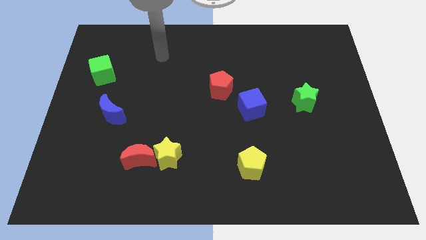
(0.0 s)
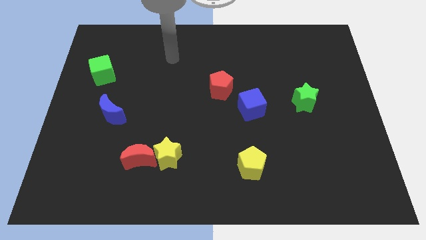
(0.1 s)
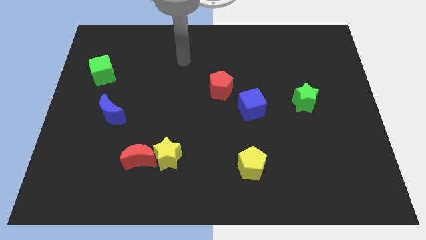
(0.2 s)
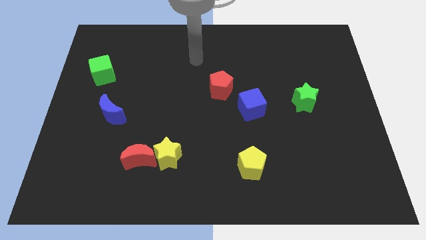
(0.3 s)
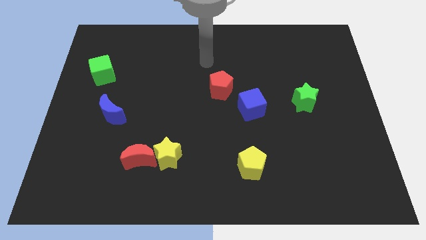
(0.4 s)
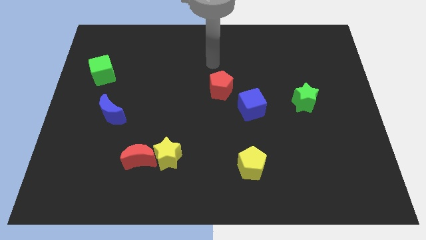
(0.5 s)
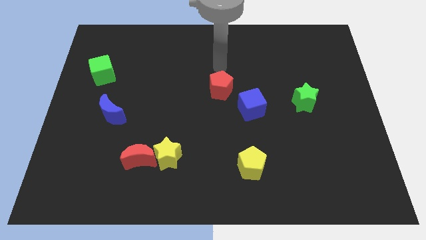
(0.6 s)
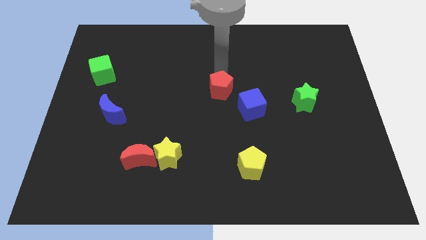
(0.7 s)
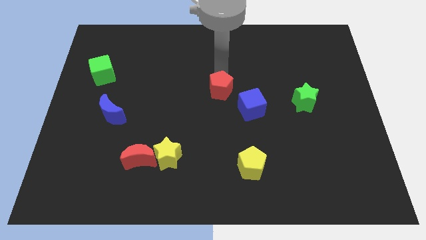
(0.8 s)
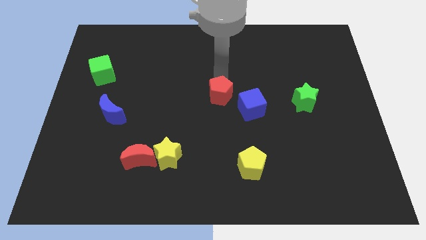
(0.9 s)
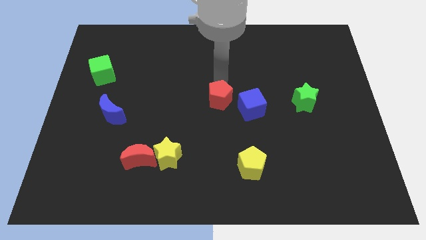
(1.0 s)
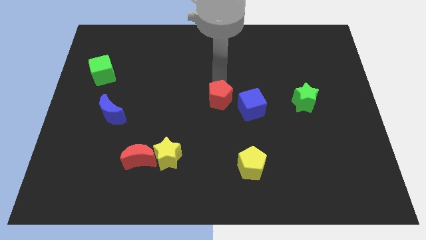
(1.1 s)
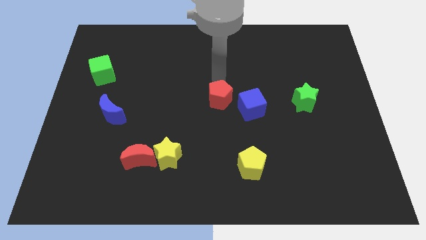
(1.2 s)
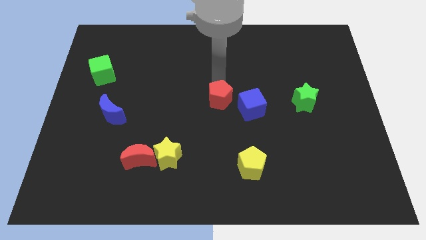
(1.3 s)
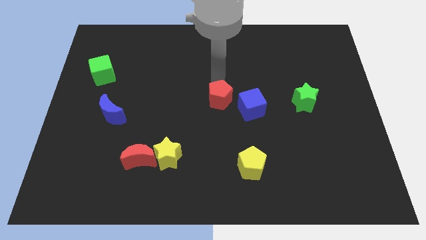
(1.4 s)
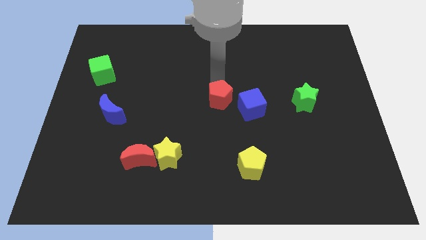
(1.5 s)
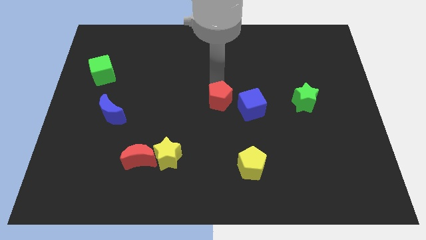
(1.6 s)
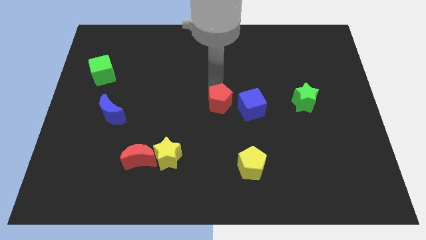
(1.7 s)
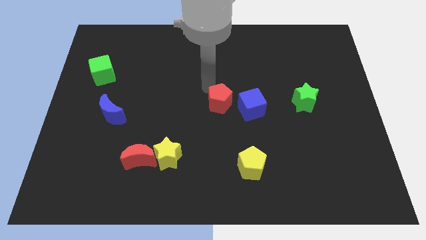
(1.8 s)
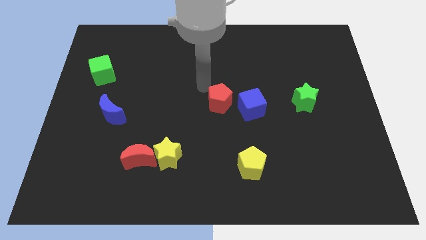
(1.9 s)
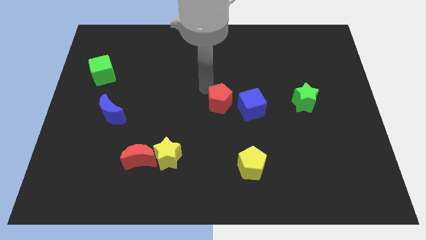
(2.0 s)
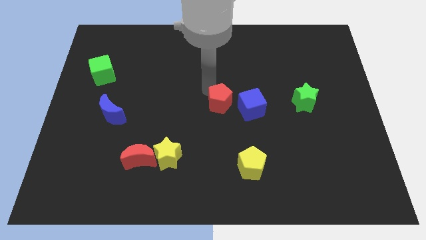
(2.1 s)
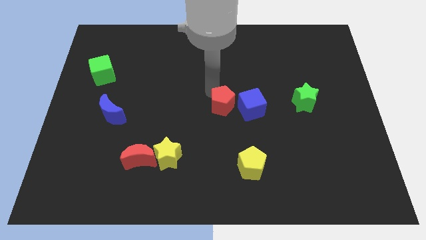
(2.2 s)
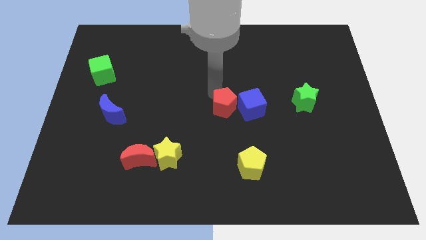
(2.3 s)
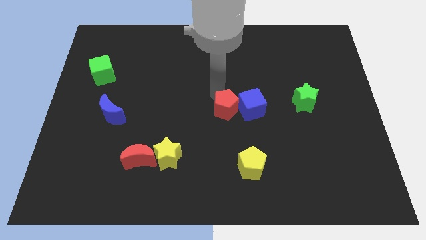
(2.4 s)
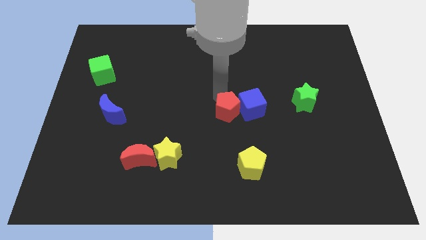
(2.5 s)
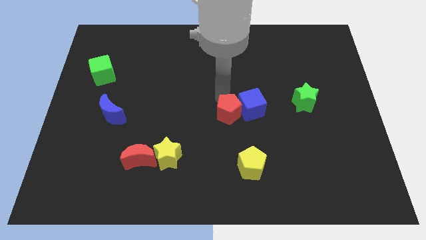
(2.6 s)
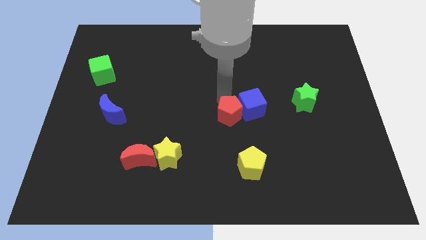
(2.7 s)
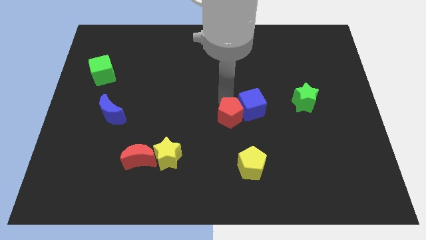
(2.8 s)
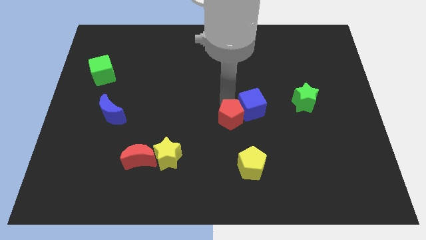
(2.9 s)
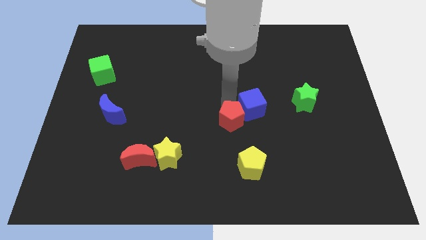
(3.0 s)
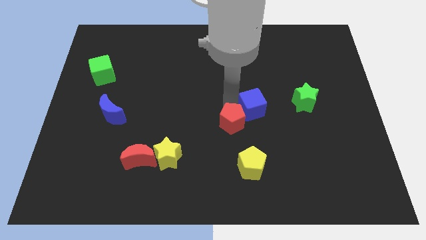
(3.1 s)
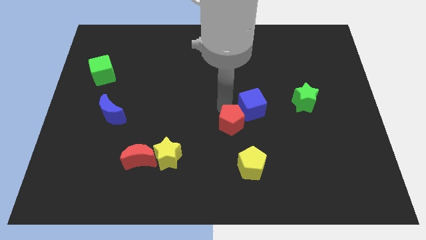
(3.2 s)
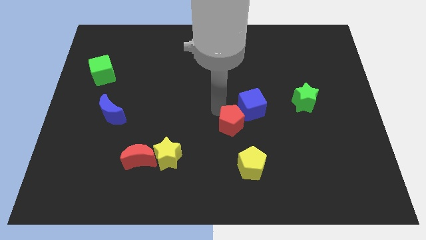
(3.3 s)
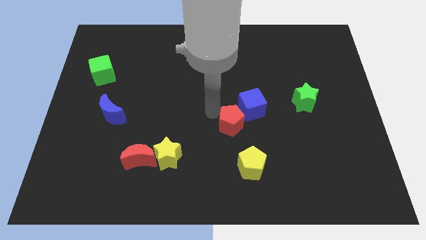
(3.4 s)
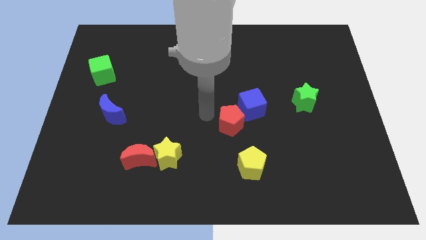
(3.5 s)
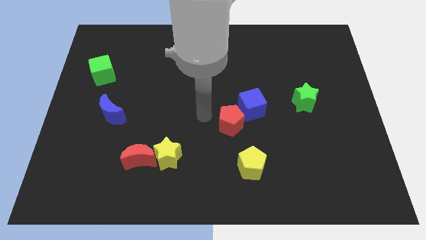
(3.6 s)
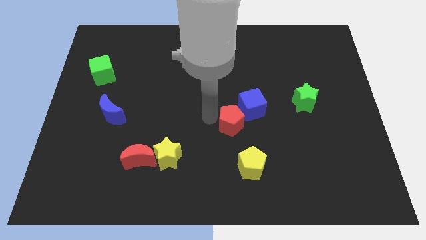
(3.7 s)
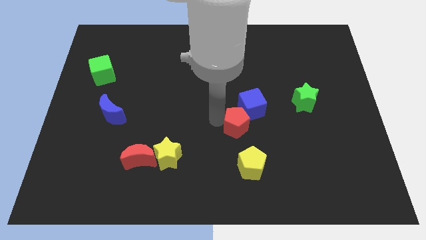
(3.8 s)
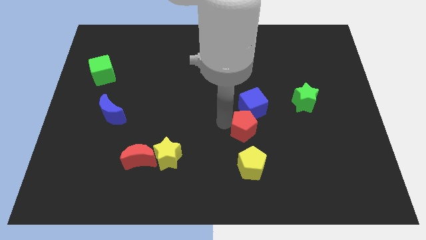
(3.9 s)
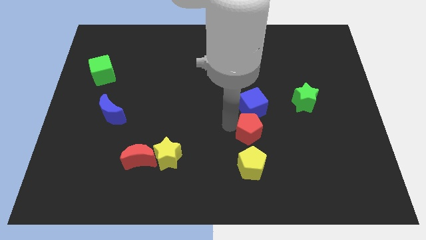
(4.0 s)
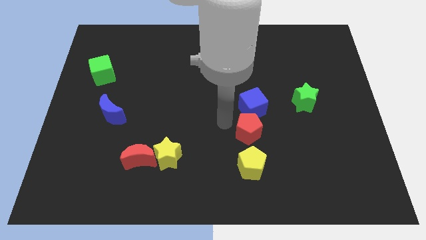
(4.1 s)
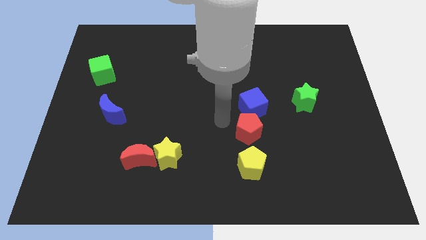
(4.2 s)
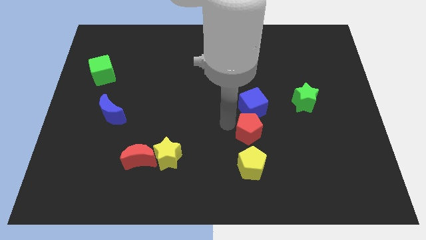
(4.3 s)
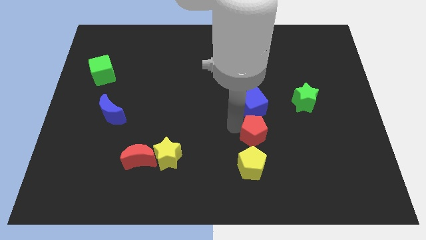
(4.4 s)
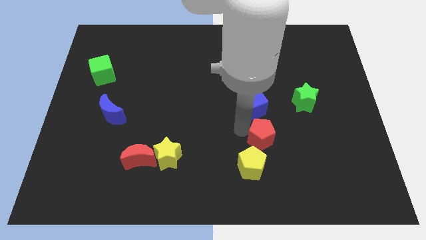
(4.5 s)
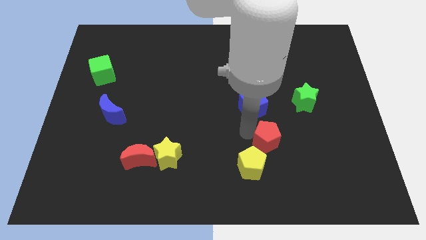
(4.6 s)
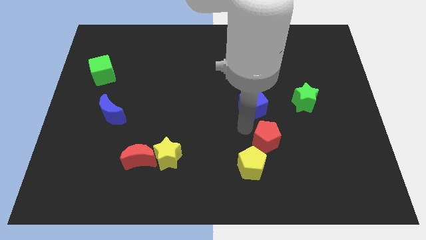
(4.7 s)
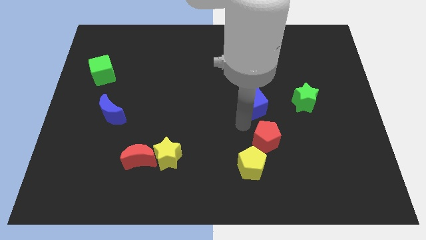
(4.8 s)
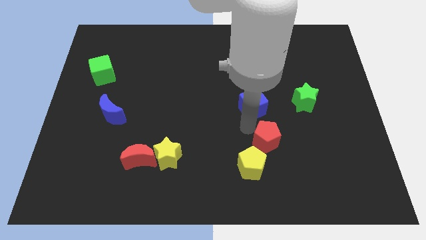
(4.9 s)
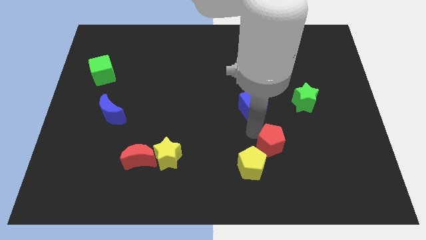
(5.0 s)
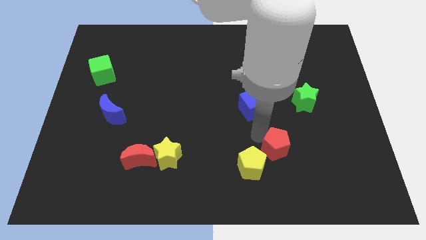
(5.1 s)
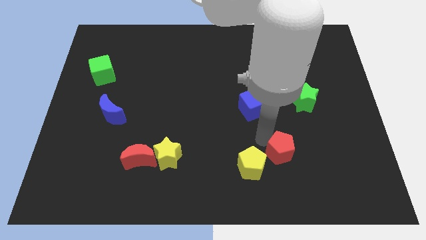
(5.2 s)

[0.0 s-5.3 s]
push the red pentagon down and to the right

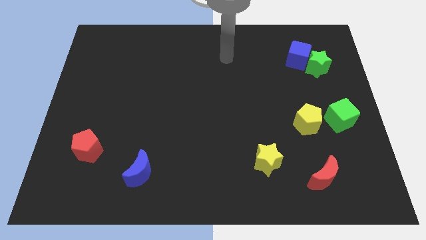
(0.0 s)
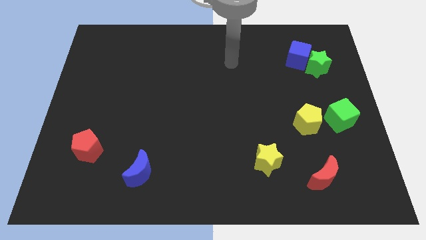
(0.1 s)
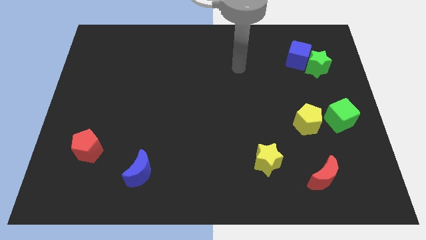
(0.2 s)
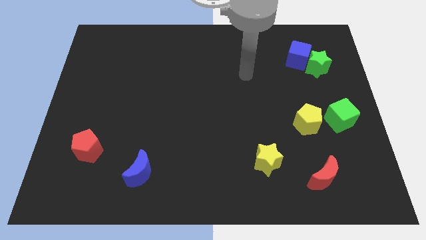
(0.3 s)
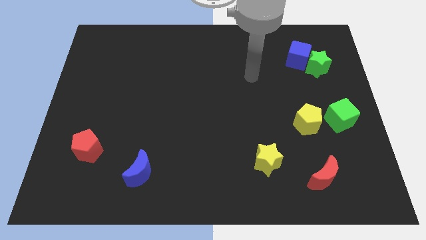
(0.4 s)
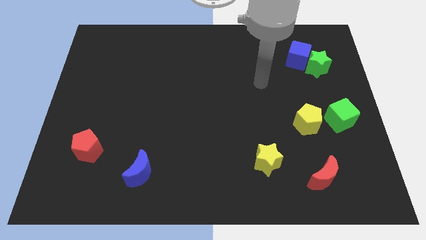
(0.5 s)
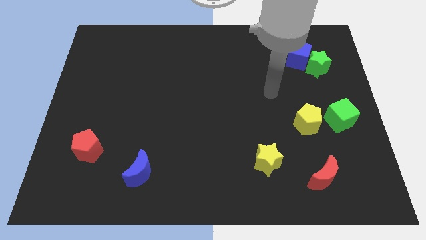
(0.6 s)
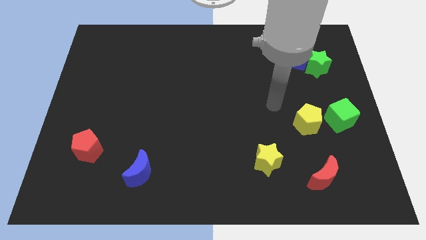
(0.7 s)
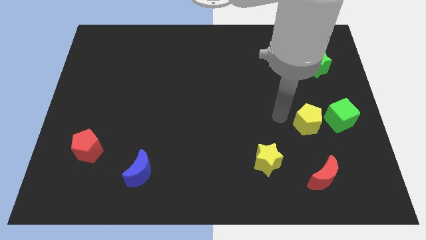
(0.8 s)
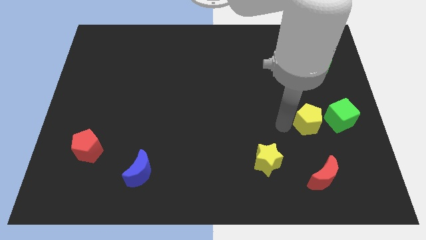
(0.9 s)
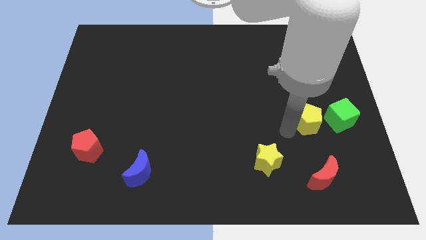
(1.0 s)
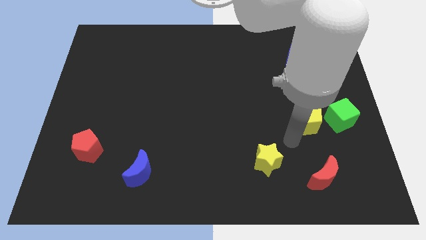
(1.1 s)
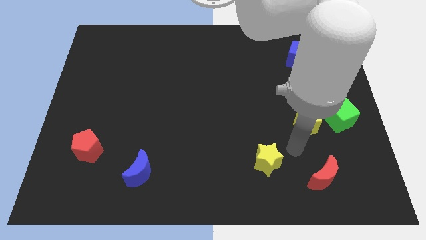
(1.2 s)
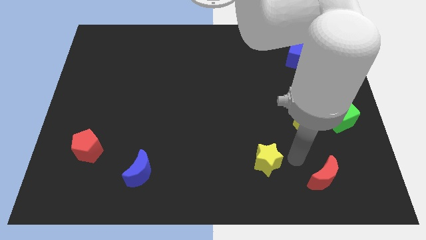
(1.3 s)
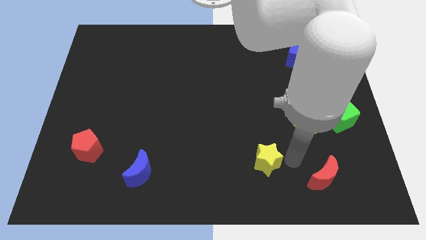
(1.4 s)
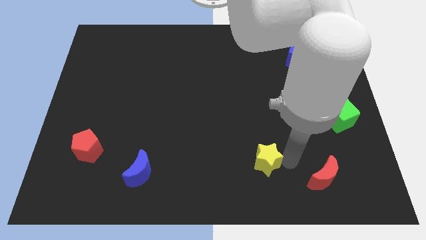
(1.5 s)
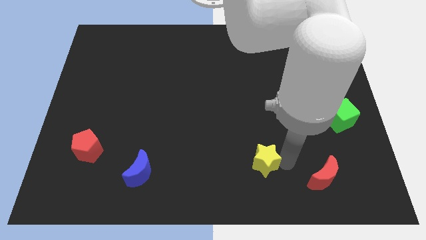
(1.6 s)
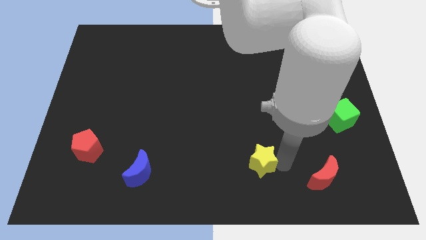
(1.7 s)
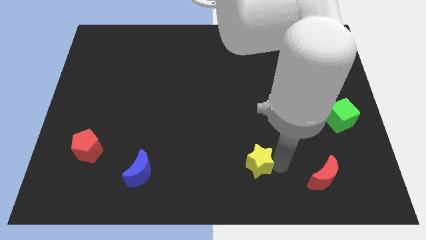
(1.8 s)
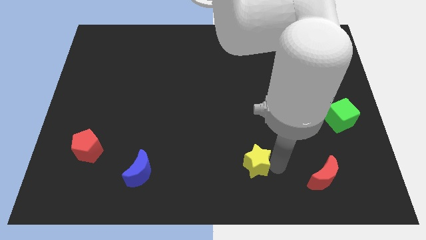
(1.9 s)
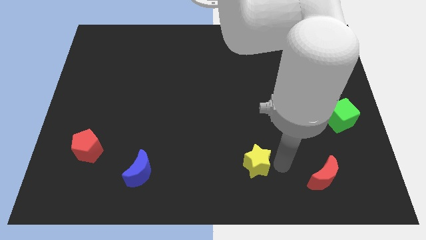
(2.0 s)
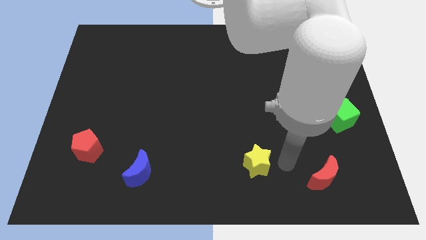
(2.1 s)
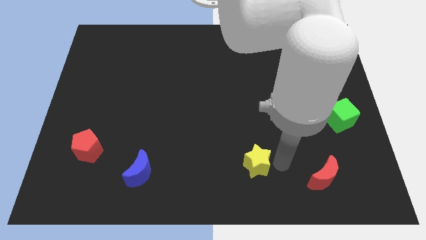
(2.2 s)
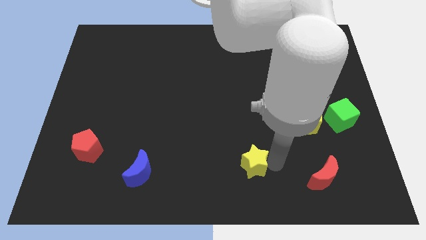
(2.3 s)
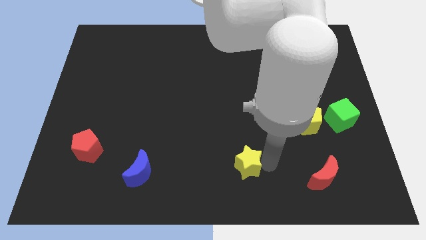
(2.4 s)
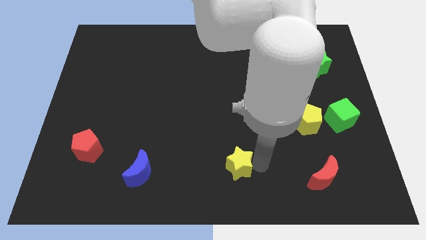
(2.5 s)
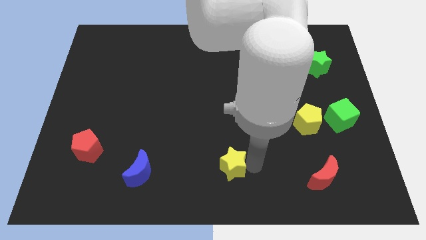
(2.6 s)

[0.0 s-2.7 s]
push the yellow star a little bit left

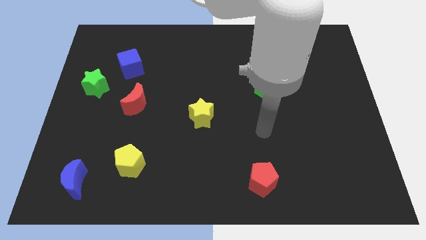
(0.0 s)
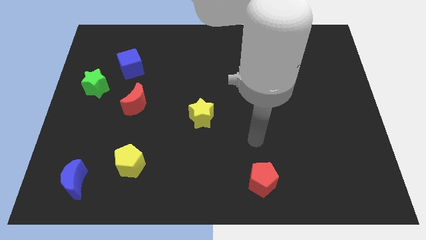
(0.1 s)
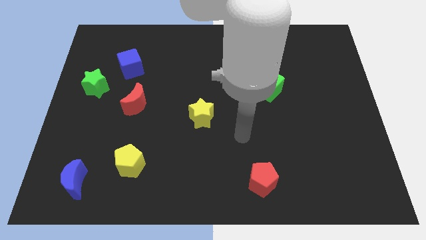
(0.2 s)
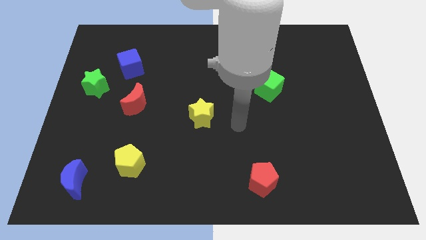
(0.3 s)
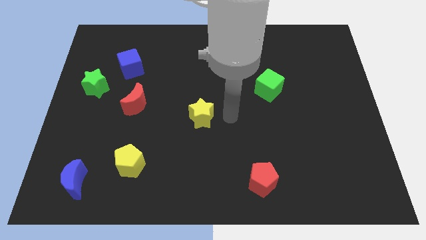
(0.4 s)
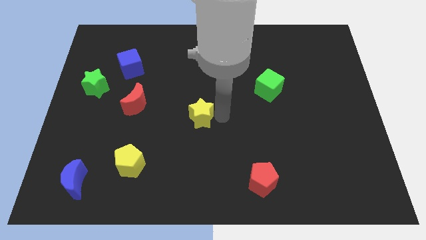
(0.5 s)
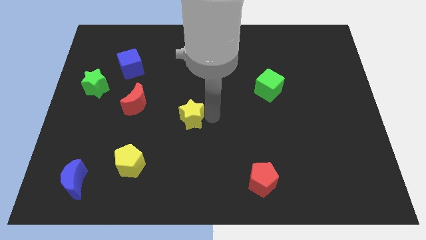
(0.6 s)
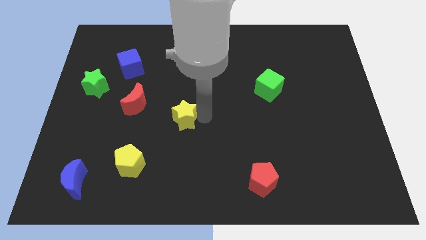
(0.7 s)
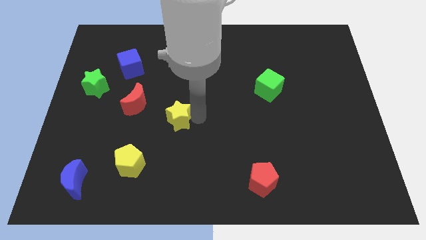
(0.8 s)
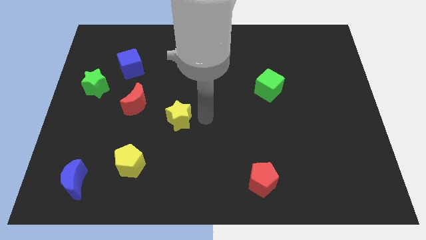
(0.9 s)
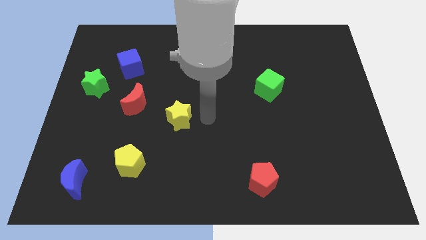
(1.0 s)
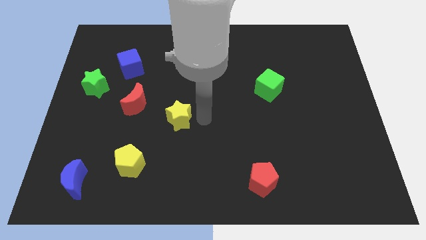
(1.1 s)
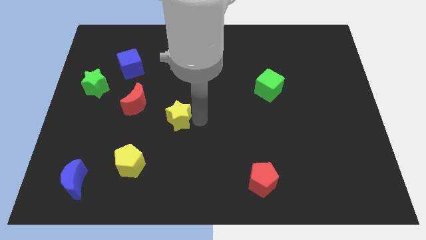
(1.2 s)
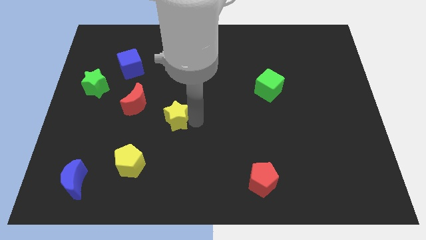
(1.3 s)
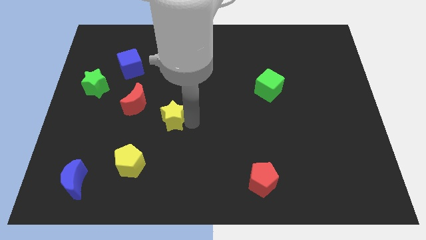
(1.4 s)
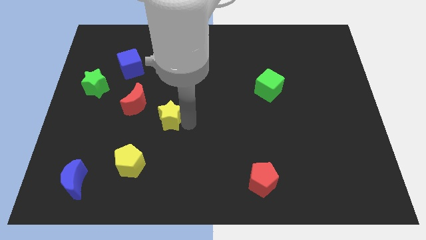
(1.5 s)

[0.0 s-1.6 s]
slide the yellow star to the left a little bit
